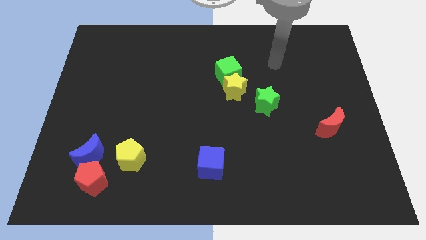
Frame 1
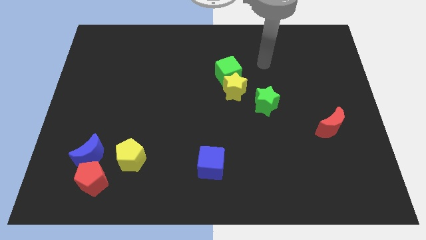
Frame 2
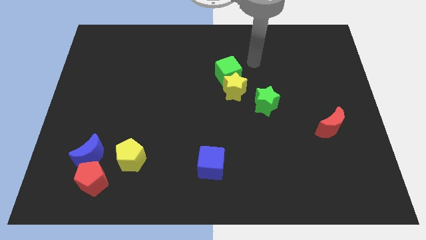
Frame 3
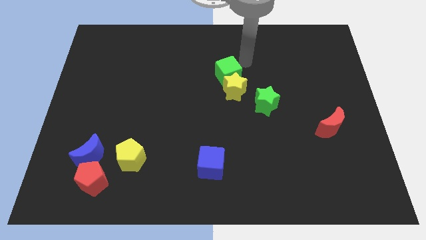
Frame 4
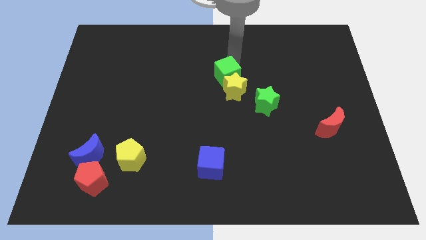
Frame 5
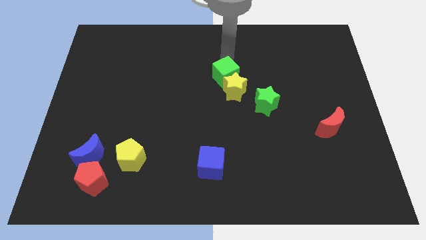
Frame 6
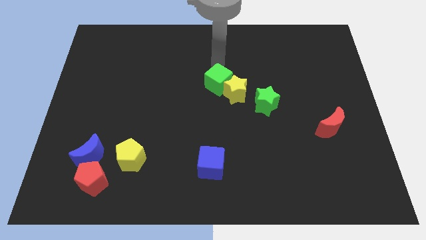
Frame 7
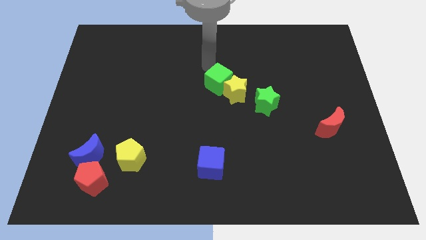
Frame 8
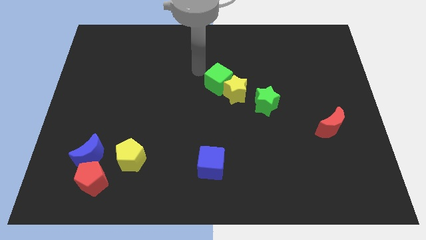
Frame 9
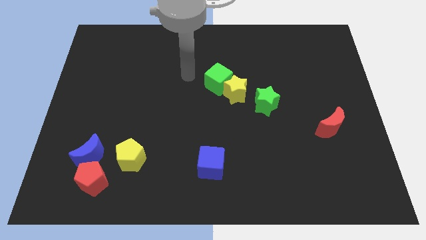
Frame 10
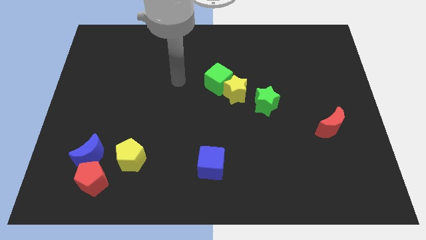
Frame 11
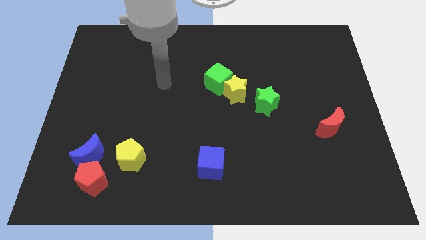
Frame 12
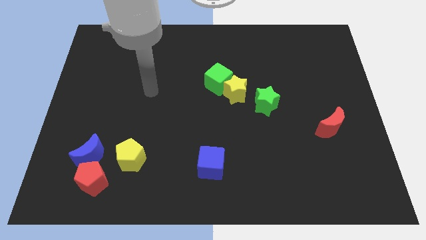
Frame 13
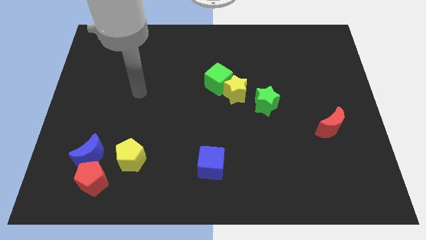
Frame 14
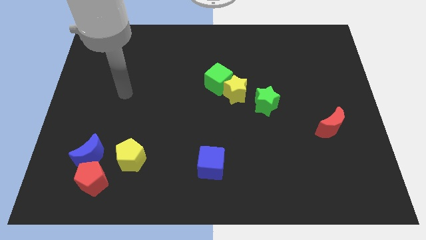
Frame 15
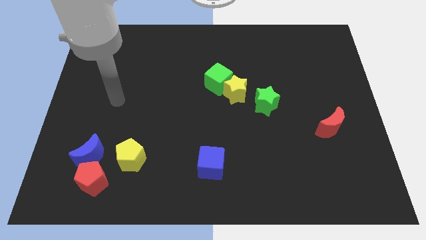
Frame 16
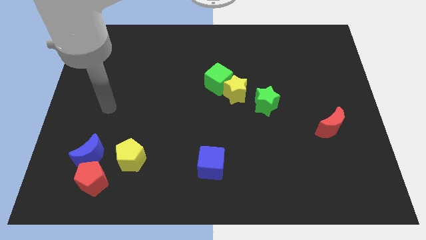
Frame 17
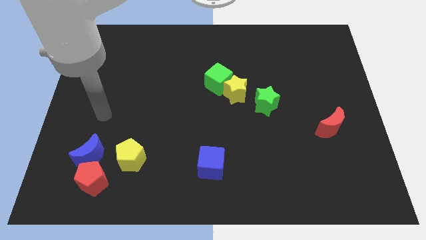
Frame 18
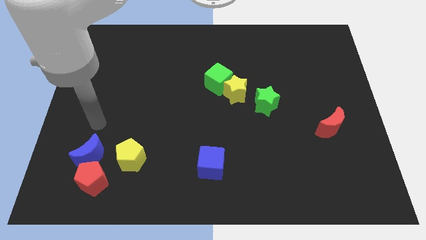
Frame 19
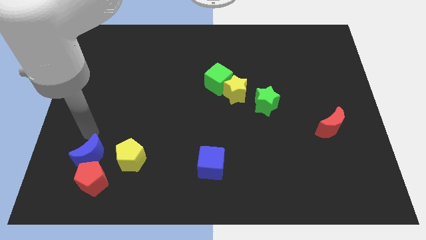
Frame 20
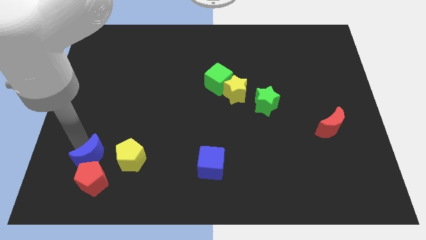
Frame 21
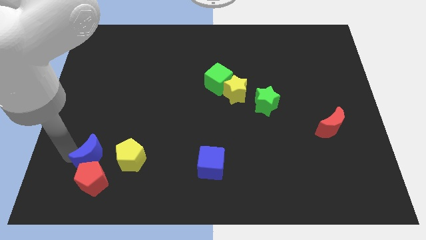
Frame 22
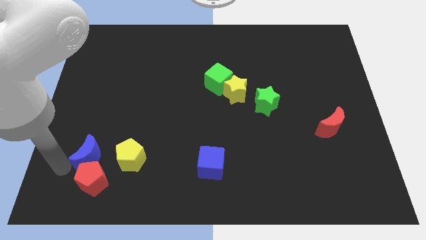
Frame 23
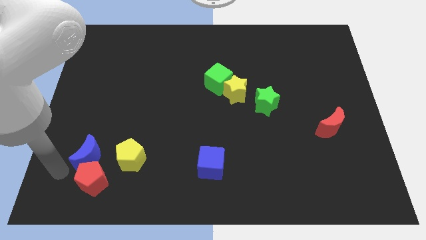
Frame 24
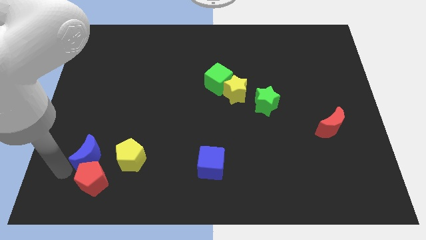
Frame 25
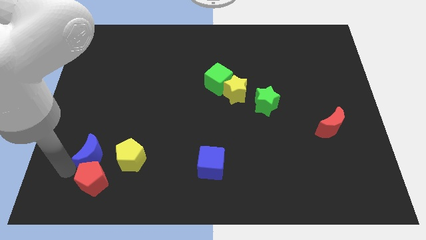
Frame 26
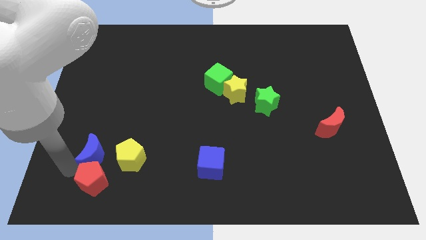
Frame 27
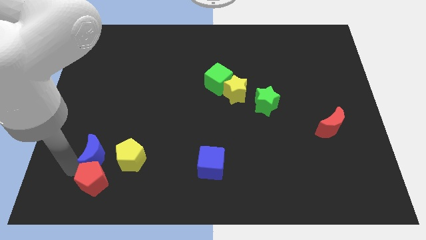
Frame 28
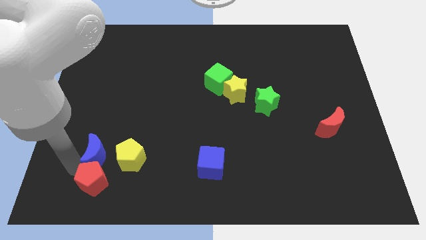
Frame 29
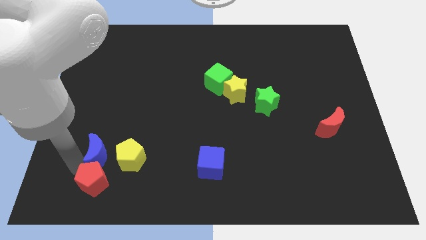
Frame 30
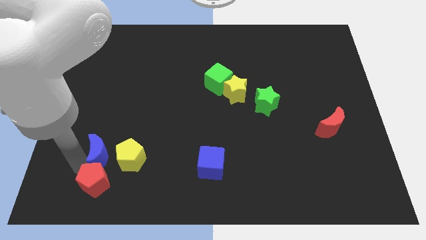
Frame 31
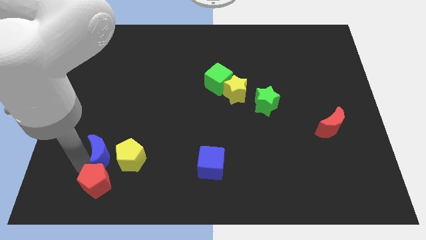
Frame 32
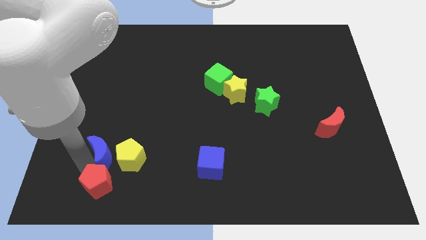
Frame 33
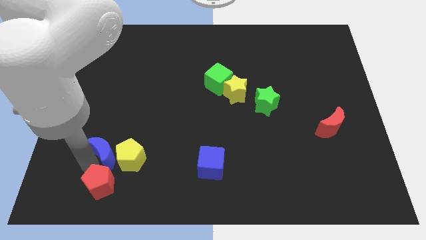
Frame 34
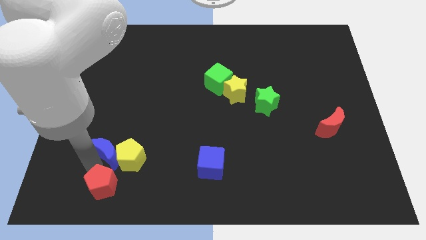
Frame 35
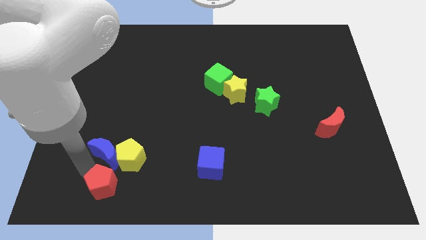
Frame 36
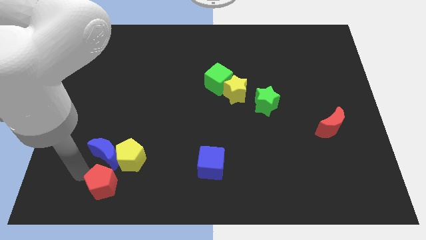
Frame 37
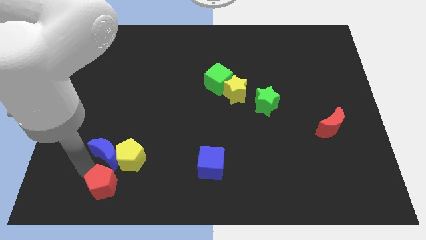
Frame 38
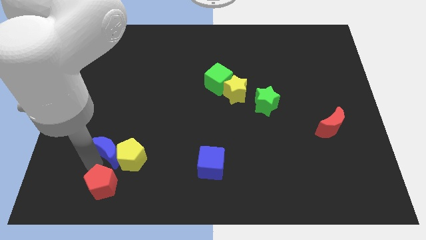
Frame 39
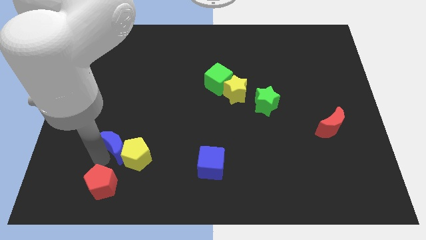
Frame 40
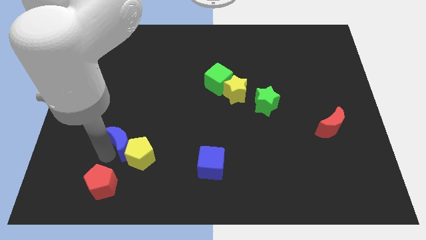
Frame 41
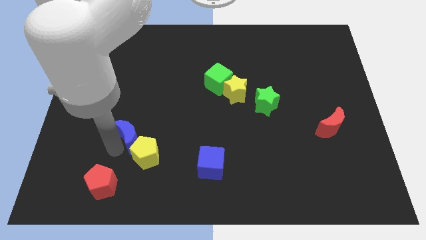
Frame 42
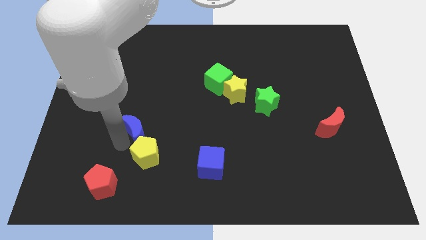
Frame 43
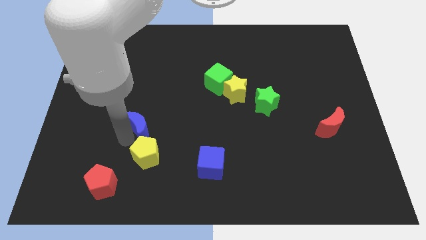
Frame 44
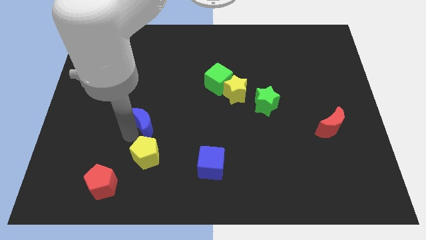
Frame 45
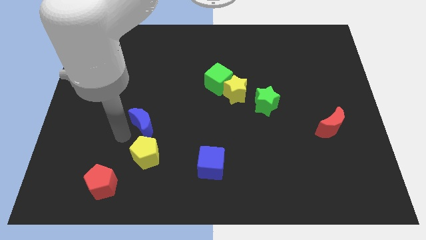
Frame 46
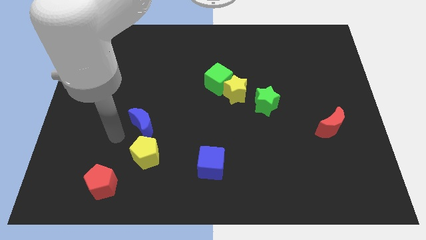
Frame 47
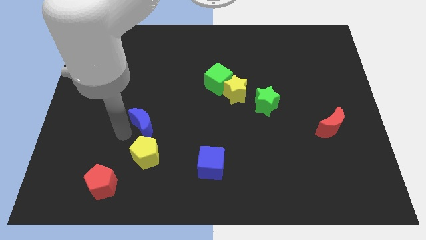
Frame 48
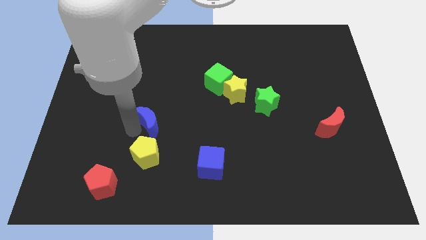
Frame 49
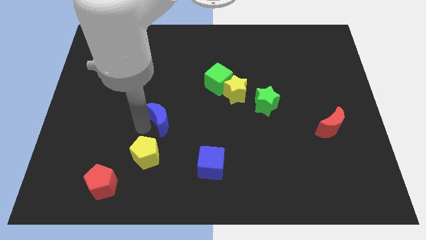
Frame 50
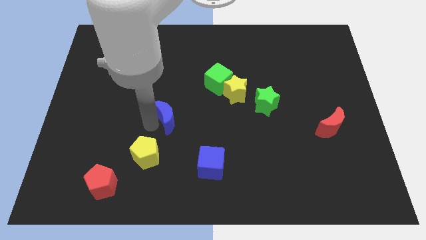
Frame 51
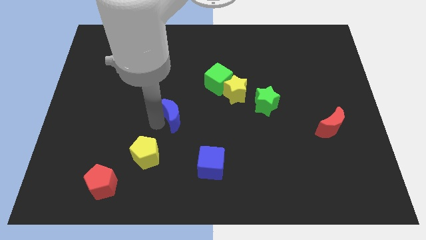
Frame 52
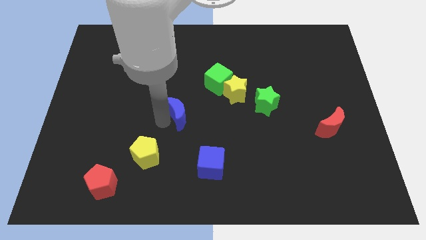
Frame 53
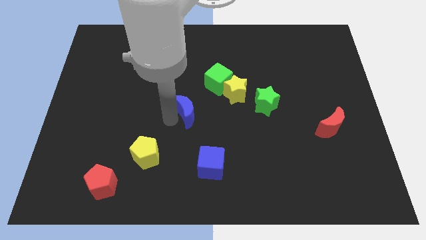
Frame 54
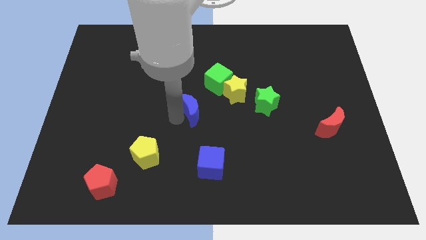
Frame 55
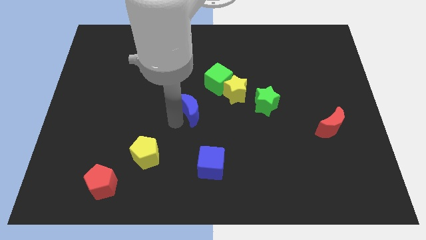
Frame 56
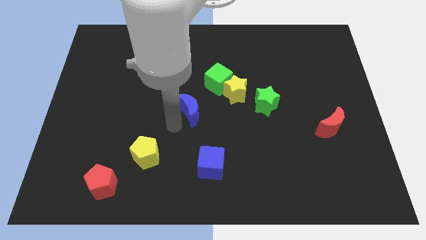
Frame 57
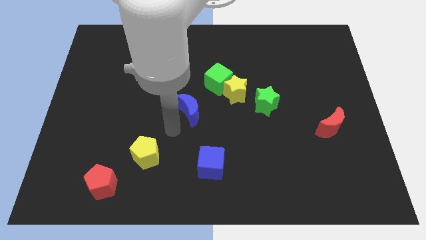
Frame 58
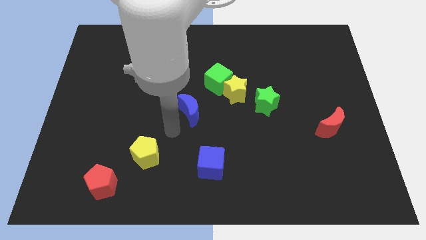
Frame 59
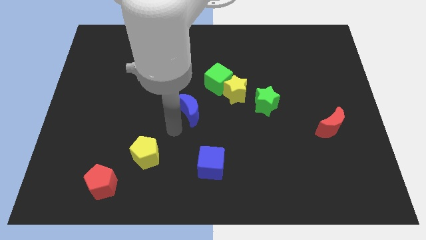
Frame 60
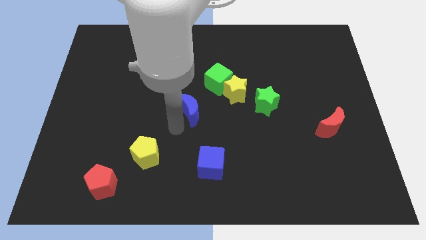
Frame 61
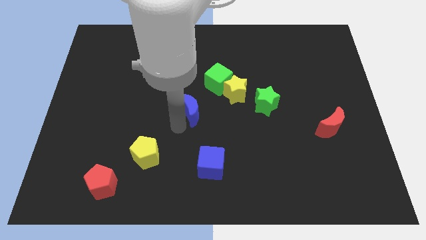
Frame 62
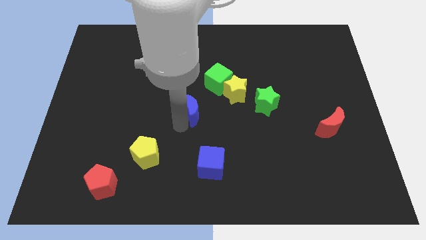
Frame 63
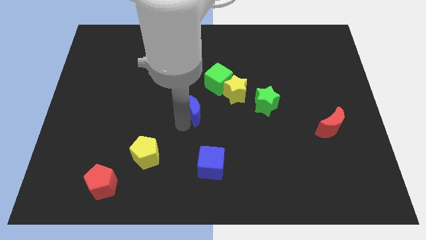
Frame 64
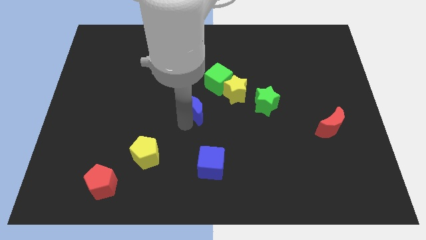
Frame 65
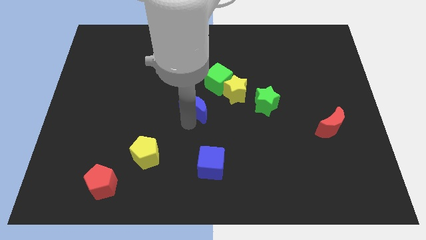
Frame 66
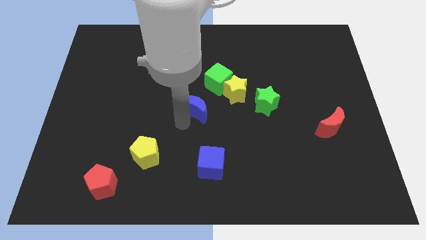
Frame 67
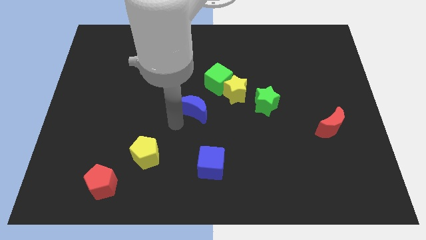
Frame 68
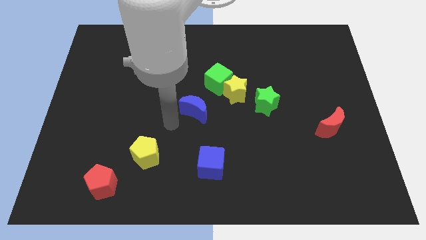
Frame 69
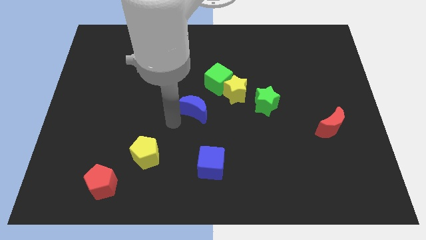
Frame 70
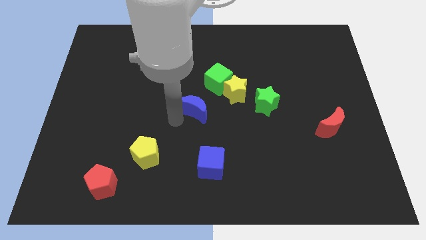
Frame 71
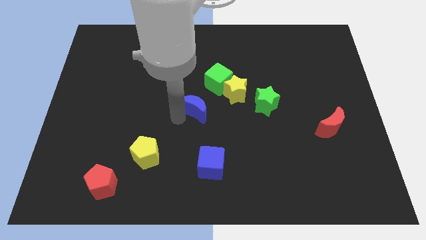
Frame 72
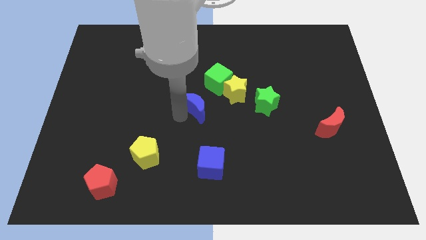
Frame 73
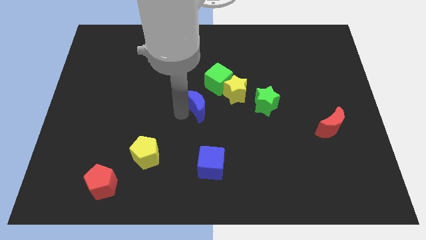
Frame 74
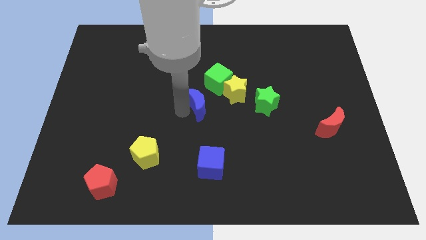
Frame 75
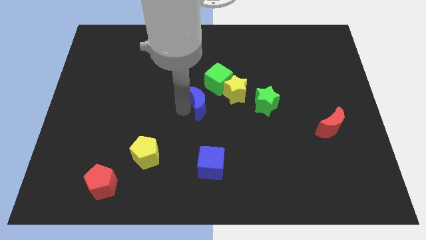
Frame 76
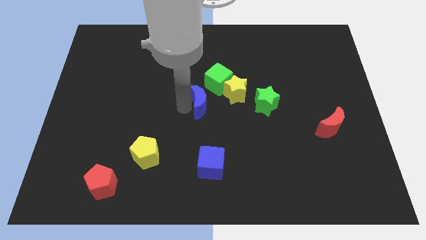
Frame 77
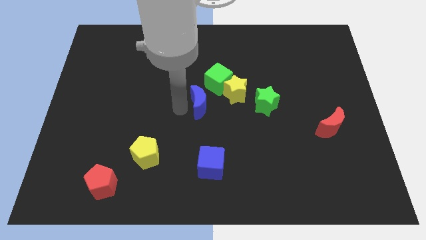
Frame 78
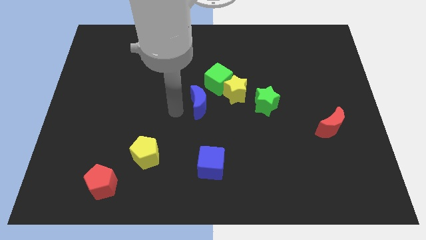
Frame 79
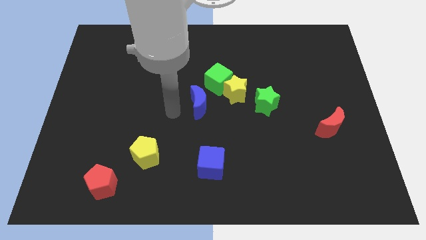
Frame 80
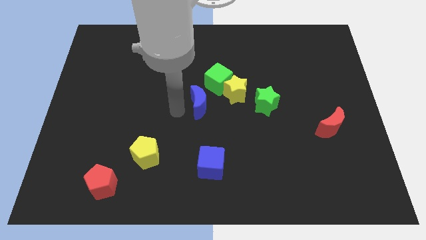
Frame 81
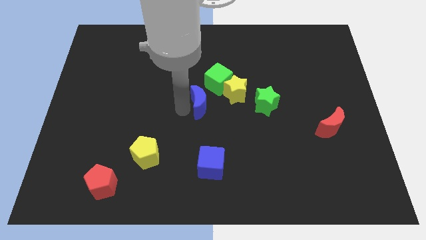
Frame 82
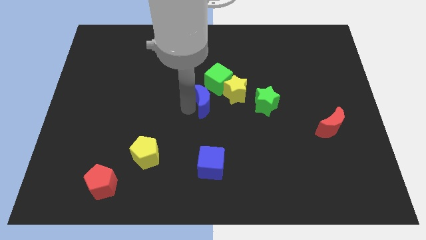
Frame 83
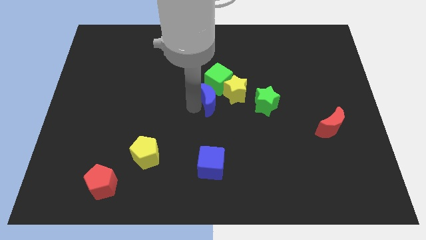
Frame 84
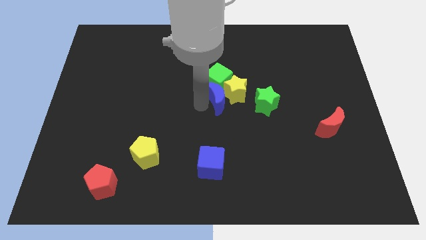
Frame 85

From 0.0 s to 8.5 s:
slide the blue moon next to the yellow star
